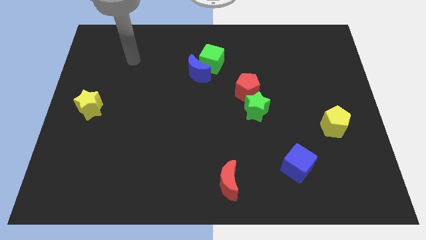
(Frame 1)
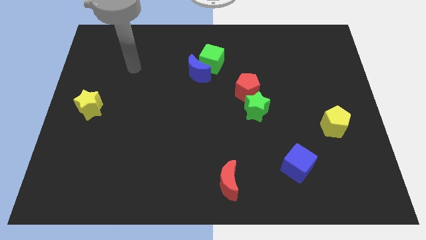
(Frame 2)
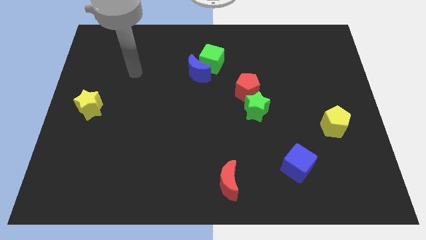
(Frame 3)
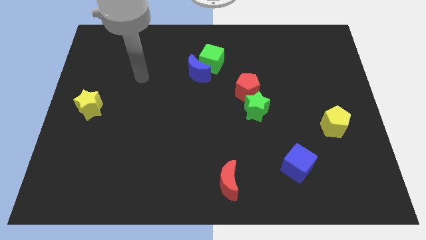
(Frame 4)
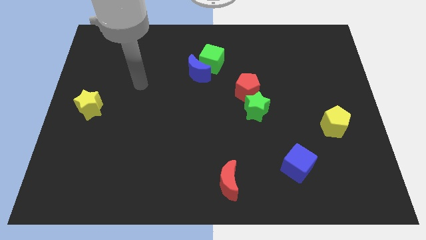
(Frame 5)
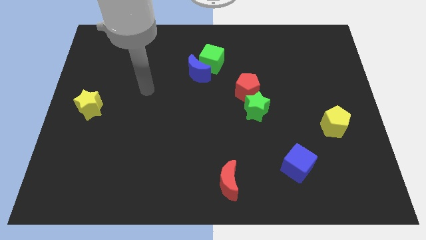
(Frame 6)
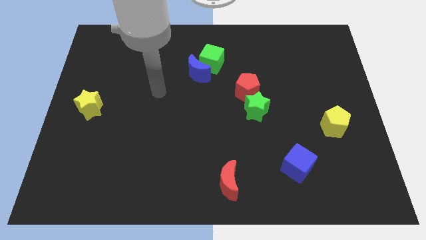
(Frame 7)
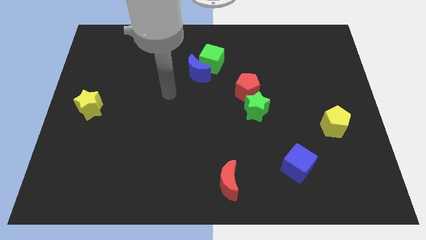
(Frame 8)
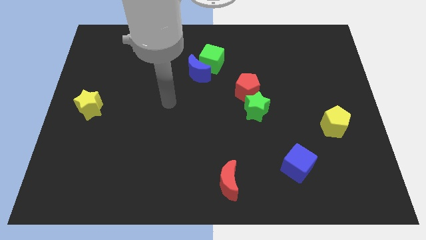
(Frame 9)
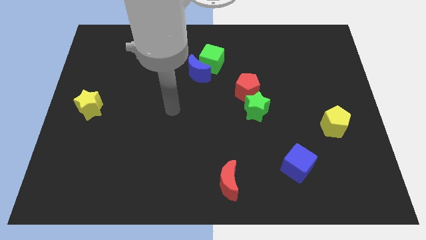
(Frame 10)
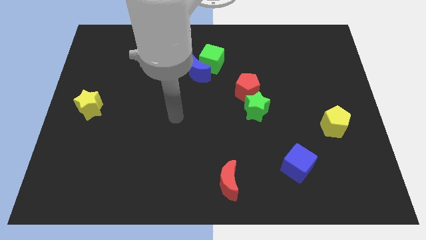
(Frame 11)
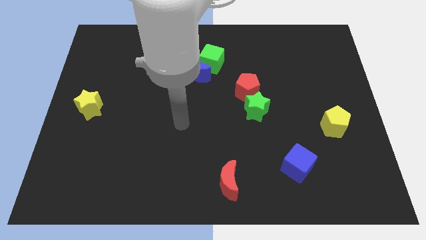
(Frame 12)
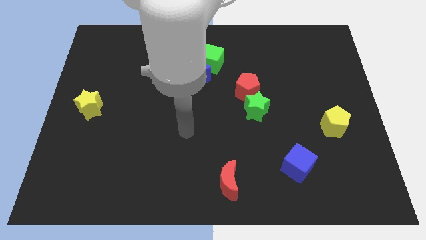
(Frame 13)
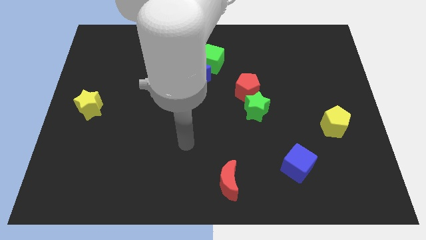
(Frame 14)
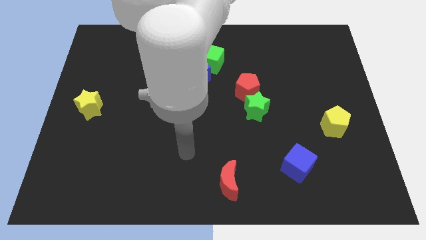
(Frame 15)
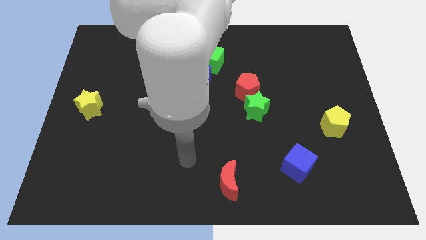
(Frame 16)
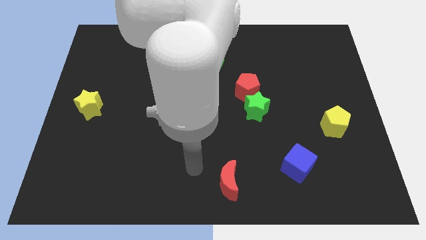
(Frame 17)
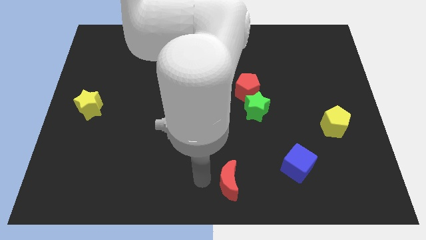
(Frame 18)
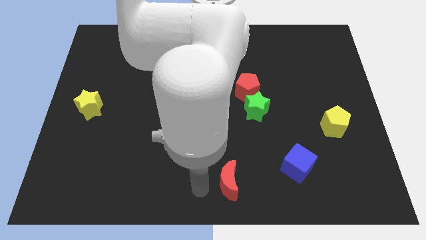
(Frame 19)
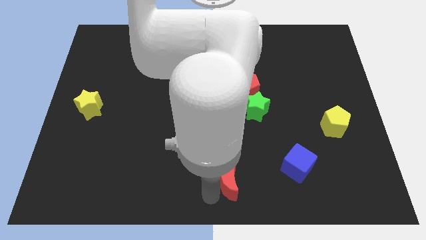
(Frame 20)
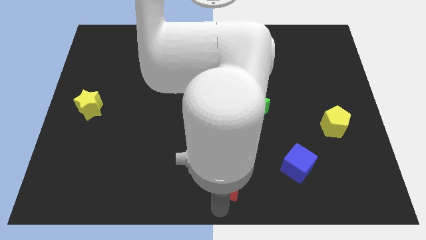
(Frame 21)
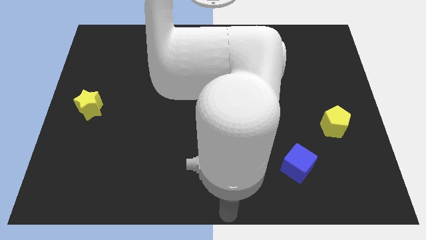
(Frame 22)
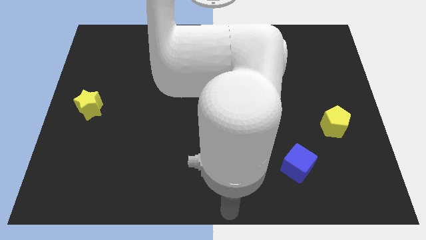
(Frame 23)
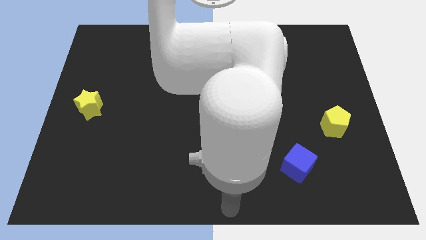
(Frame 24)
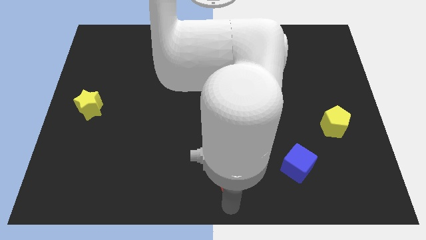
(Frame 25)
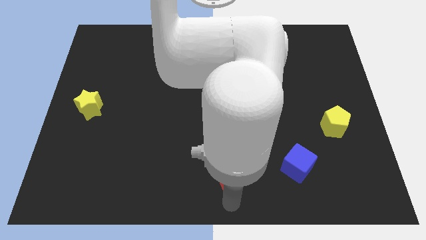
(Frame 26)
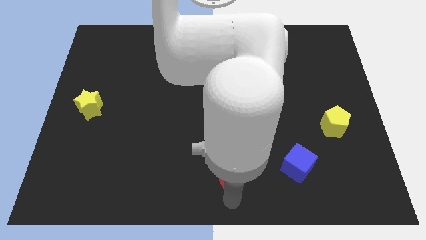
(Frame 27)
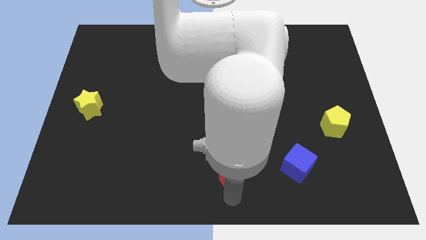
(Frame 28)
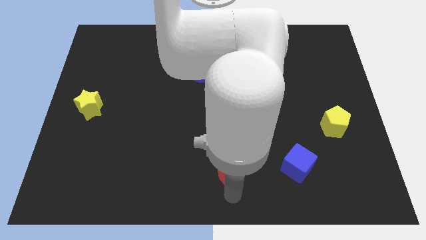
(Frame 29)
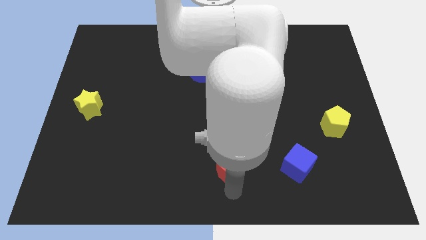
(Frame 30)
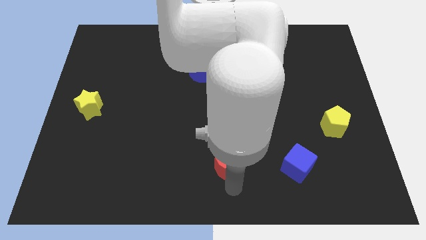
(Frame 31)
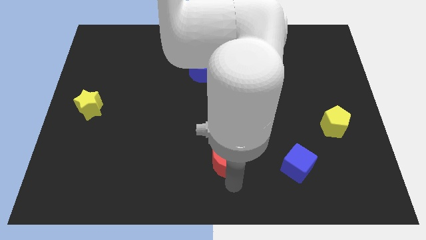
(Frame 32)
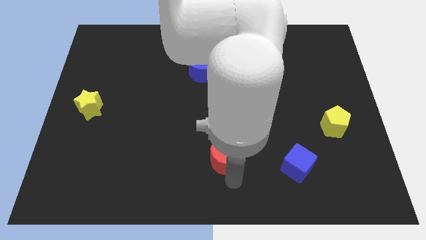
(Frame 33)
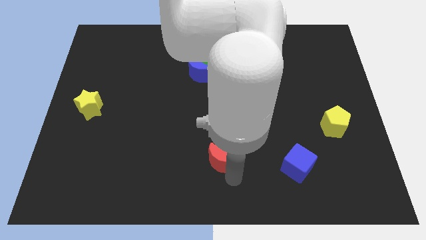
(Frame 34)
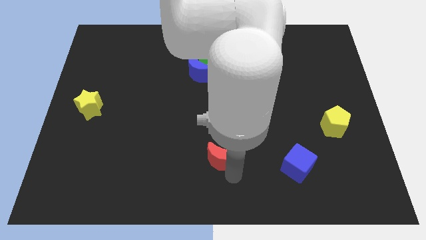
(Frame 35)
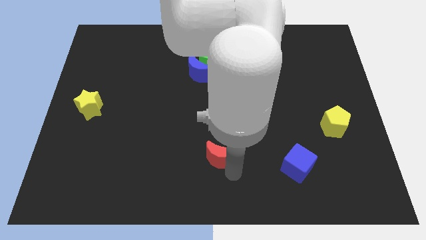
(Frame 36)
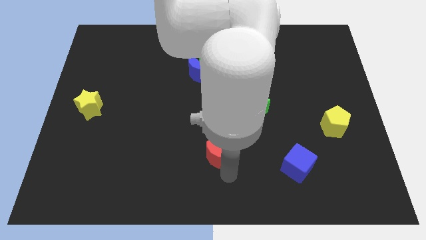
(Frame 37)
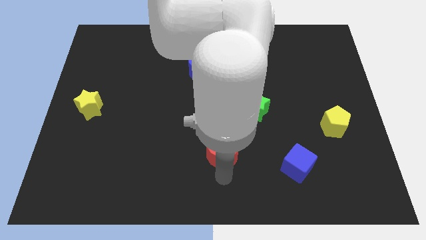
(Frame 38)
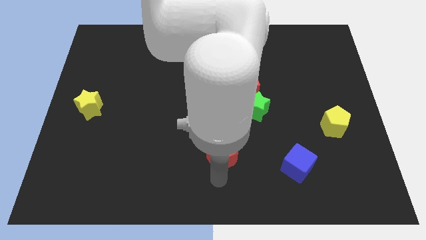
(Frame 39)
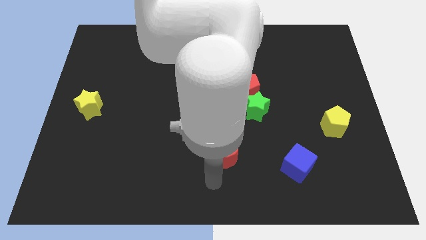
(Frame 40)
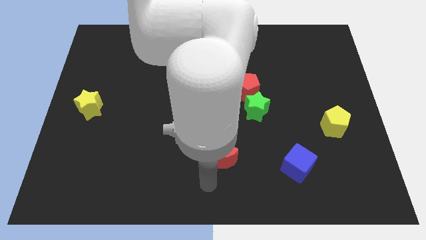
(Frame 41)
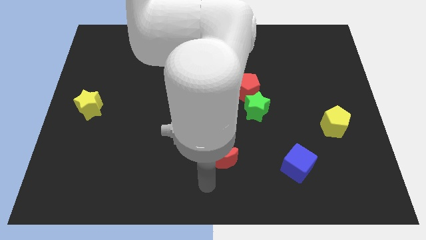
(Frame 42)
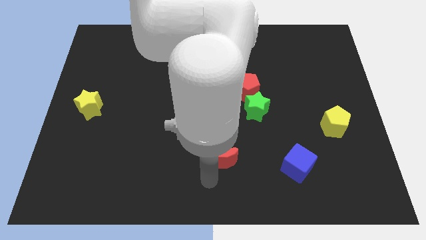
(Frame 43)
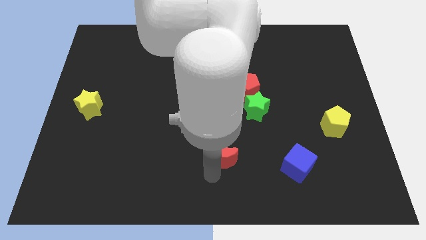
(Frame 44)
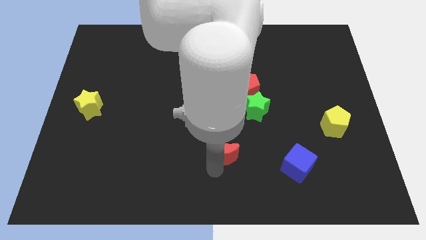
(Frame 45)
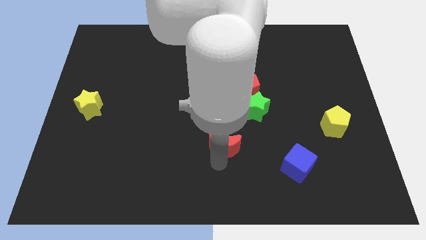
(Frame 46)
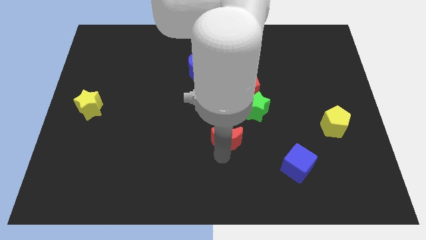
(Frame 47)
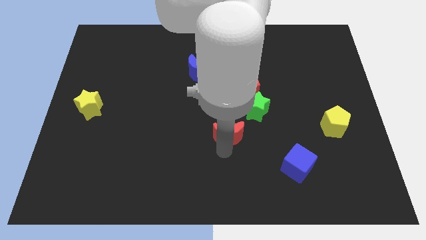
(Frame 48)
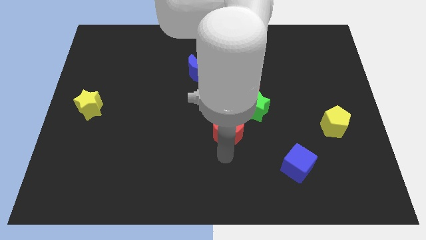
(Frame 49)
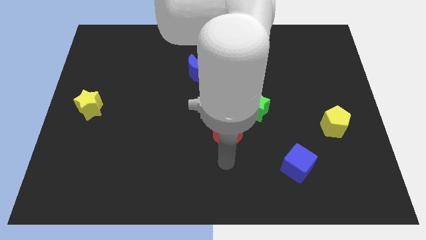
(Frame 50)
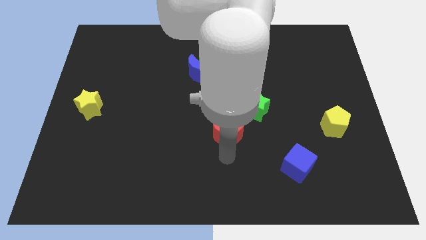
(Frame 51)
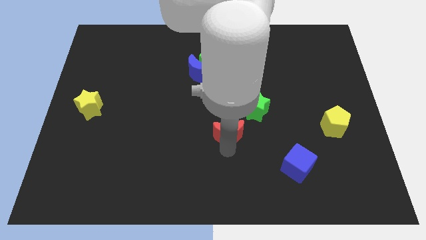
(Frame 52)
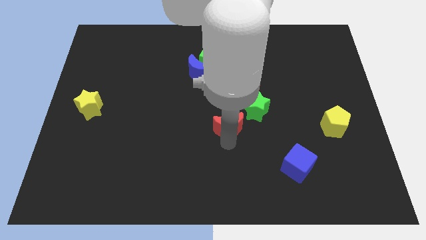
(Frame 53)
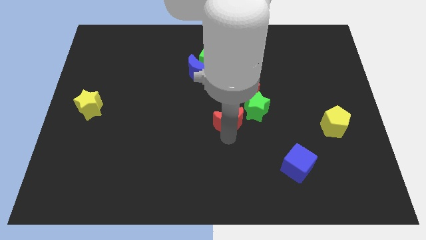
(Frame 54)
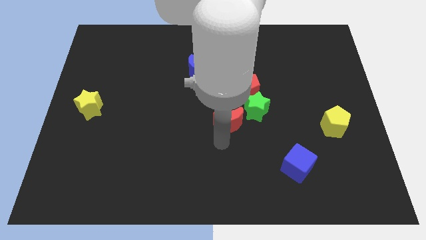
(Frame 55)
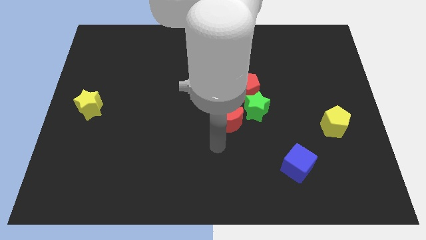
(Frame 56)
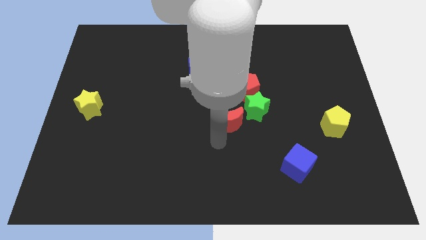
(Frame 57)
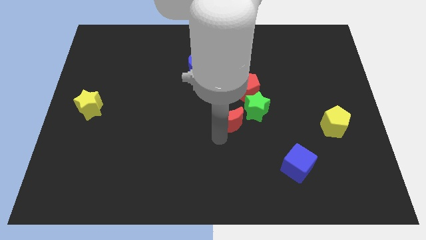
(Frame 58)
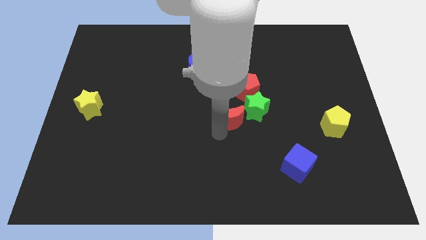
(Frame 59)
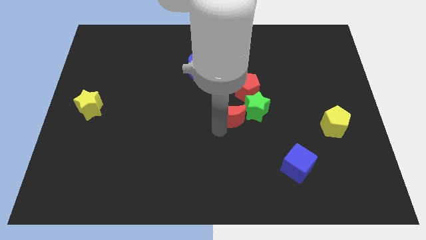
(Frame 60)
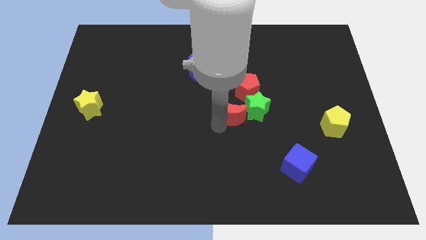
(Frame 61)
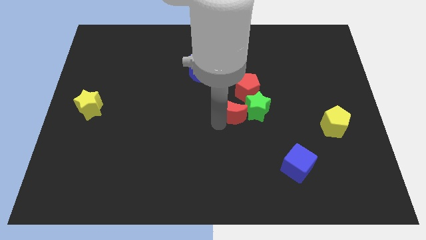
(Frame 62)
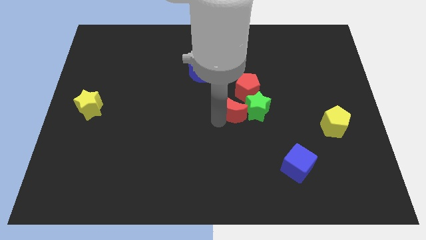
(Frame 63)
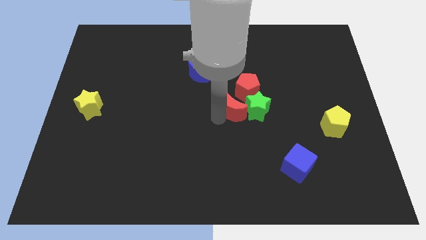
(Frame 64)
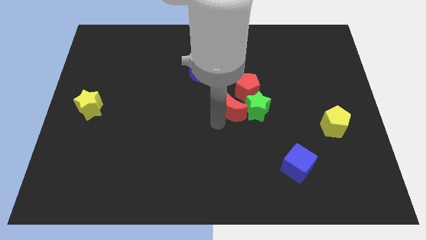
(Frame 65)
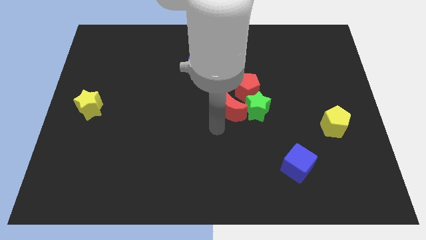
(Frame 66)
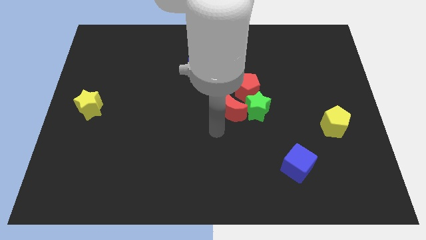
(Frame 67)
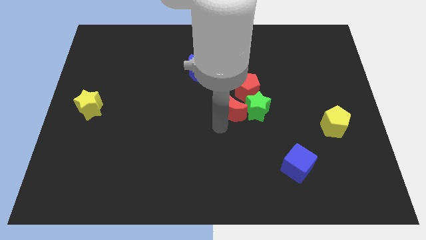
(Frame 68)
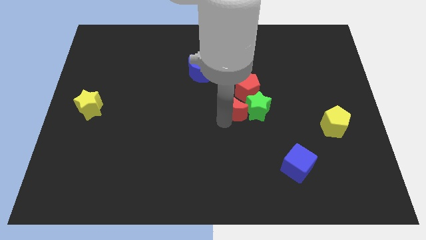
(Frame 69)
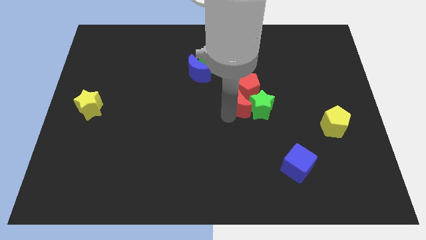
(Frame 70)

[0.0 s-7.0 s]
slide the red moon next to the red pentagon

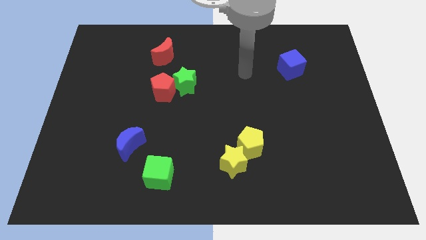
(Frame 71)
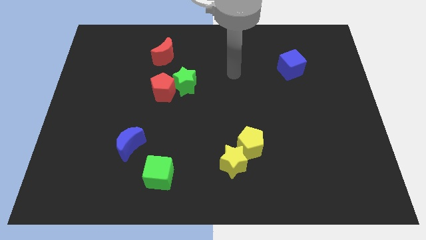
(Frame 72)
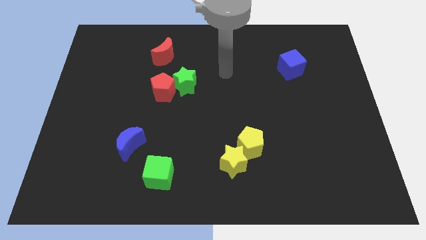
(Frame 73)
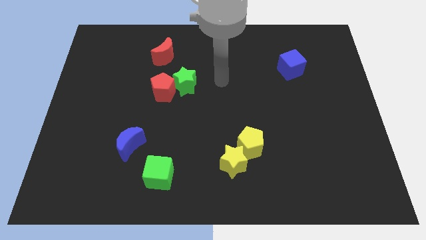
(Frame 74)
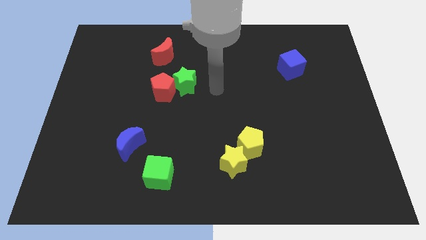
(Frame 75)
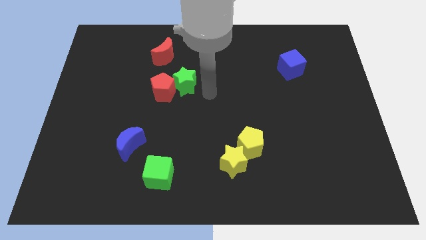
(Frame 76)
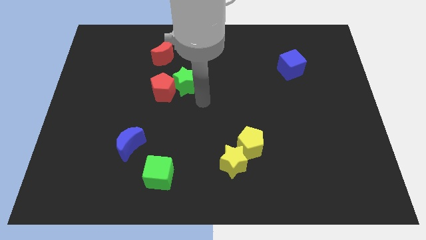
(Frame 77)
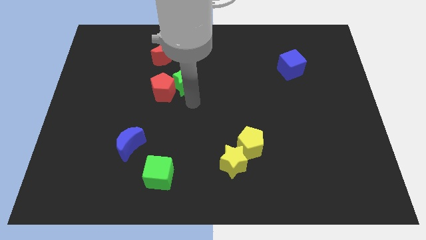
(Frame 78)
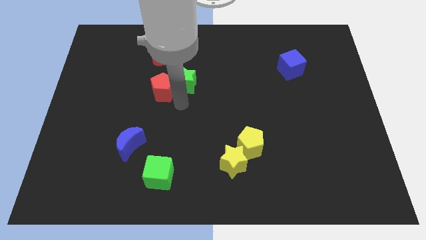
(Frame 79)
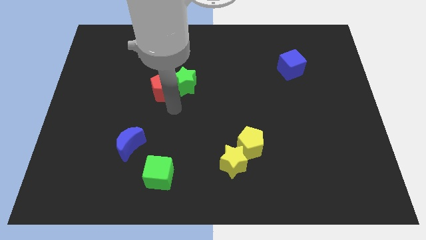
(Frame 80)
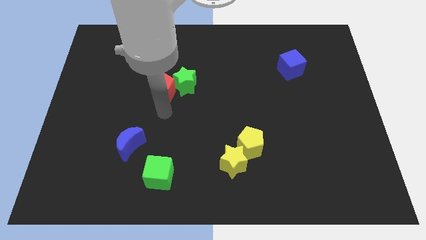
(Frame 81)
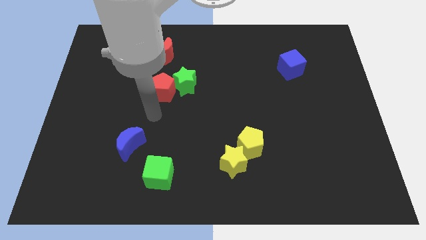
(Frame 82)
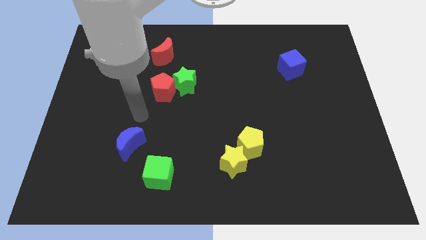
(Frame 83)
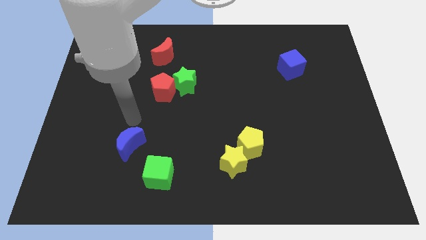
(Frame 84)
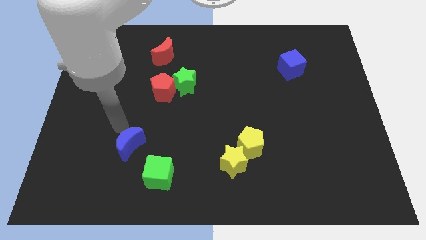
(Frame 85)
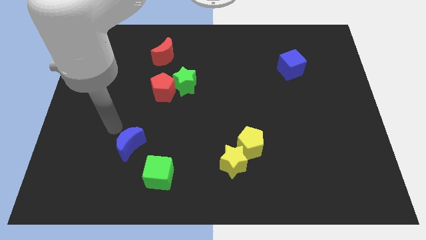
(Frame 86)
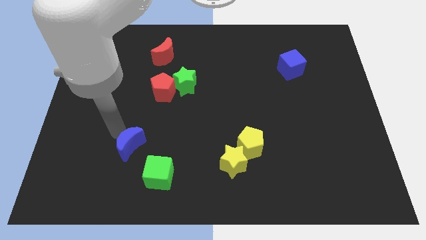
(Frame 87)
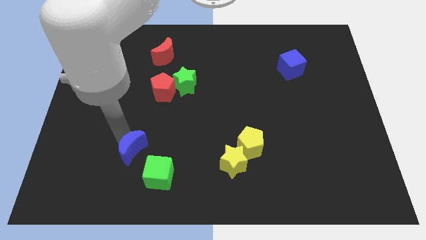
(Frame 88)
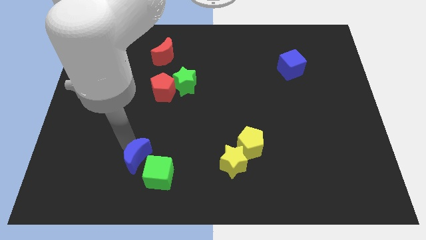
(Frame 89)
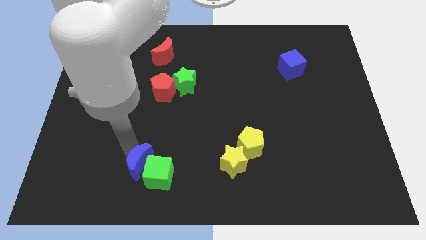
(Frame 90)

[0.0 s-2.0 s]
push the blue moon close to the green cube
